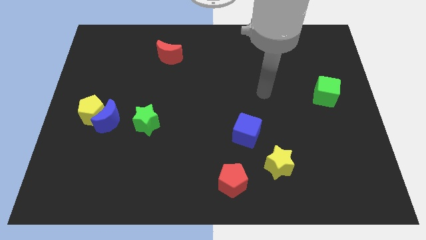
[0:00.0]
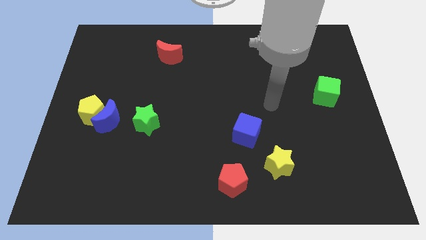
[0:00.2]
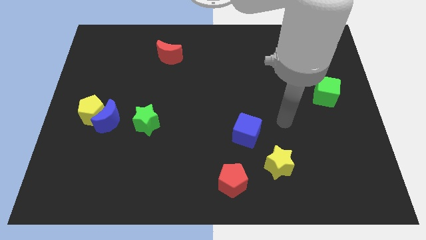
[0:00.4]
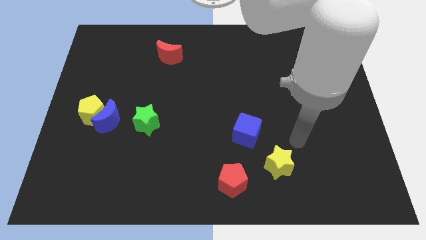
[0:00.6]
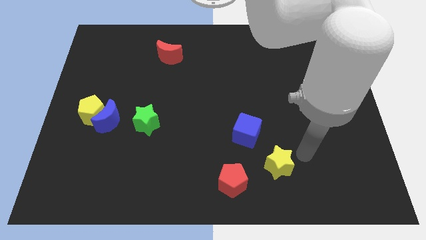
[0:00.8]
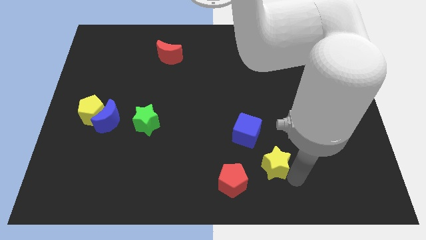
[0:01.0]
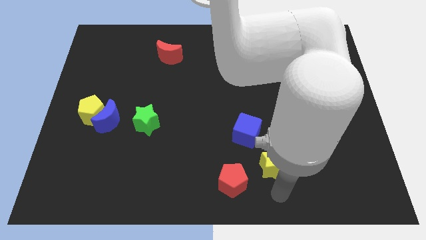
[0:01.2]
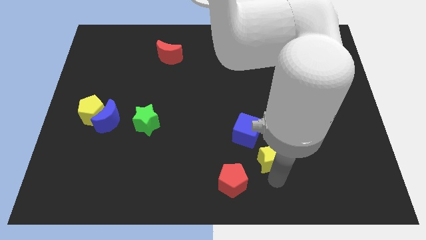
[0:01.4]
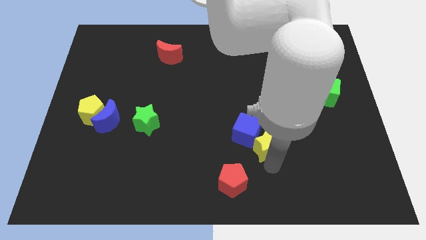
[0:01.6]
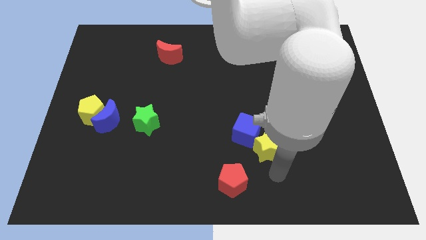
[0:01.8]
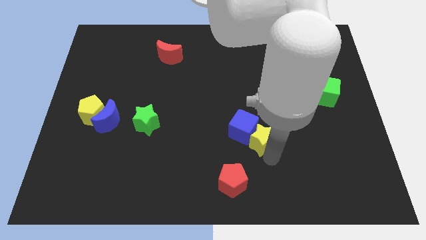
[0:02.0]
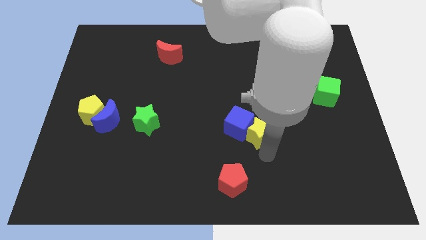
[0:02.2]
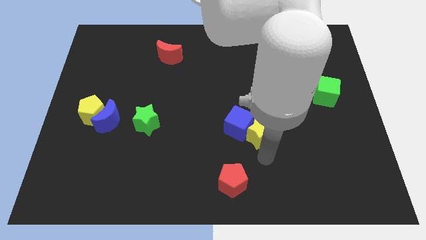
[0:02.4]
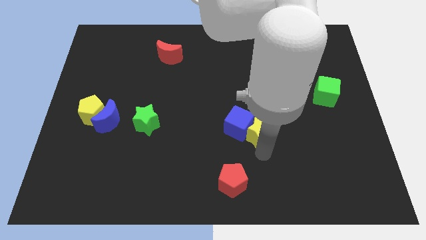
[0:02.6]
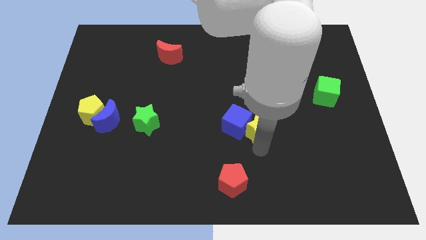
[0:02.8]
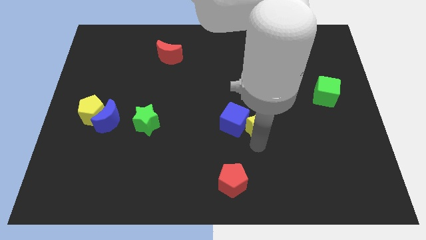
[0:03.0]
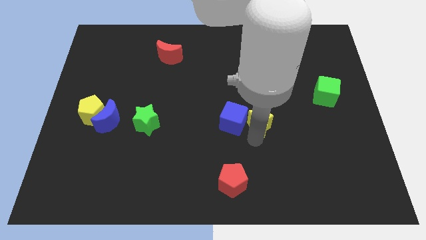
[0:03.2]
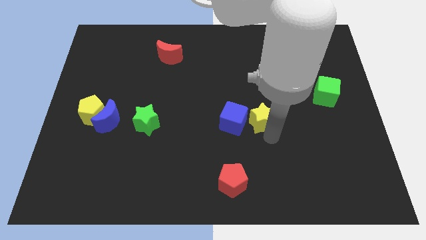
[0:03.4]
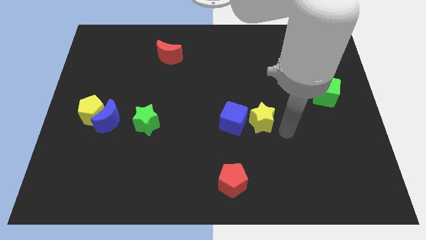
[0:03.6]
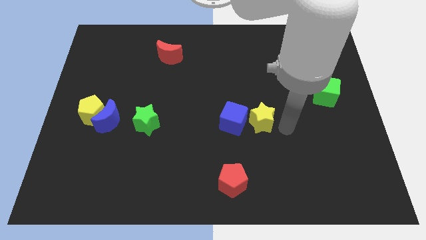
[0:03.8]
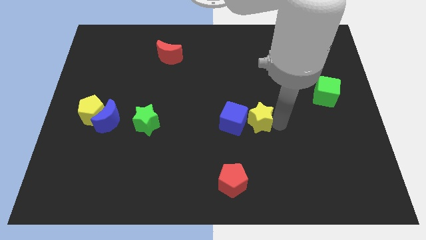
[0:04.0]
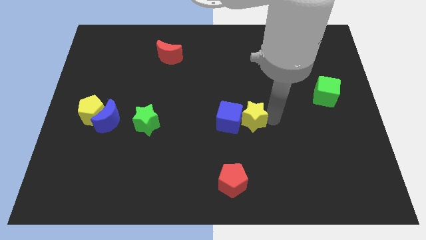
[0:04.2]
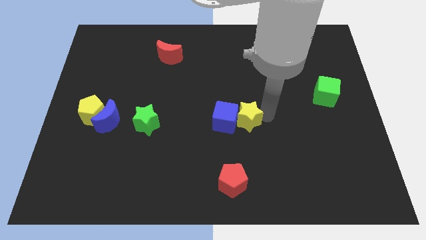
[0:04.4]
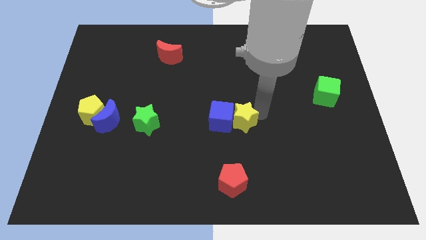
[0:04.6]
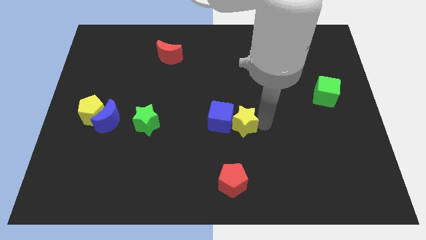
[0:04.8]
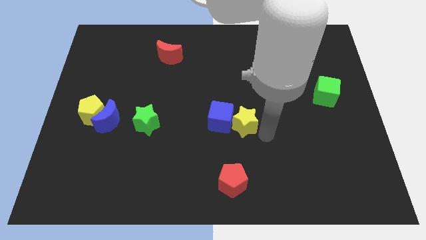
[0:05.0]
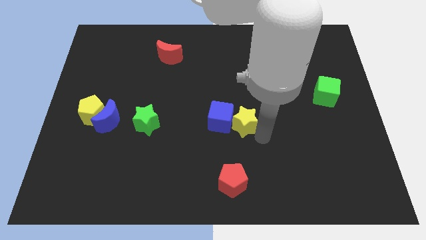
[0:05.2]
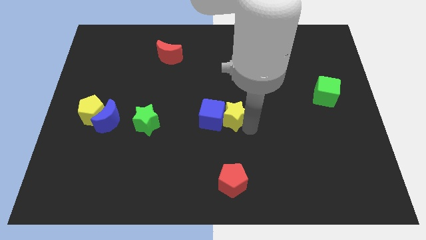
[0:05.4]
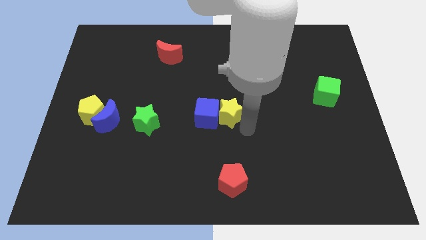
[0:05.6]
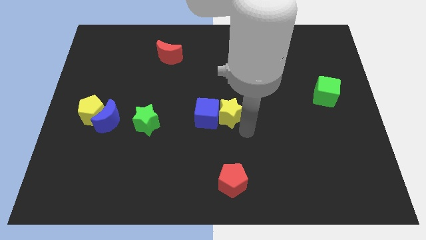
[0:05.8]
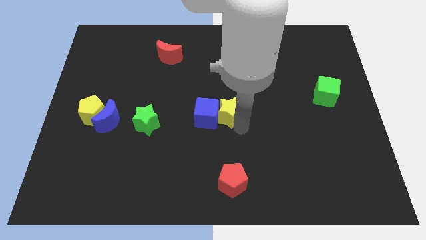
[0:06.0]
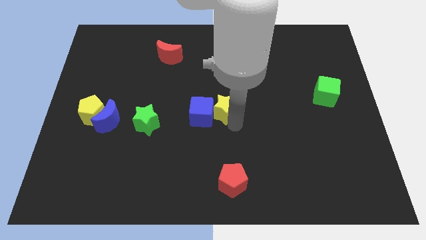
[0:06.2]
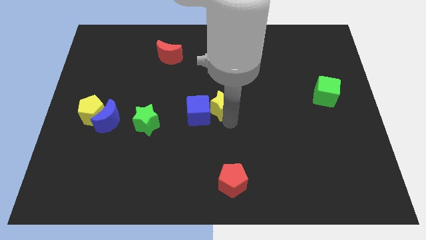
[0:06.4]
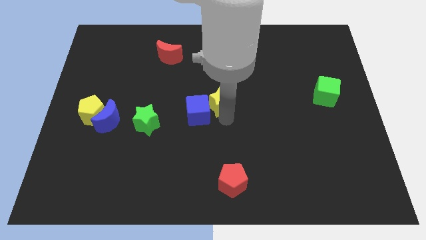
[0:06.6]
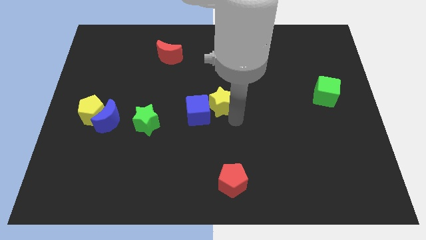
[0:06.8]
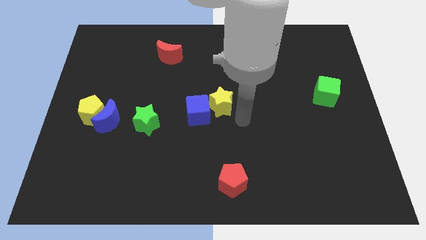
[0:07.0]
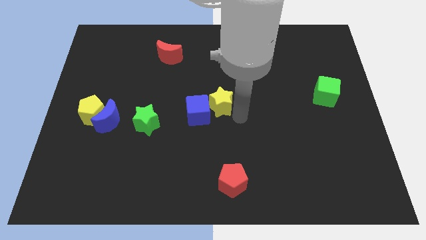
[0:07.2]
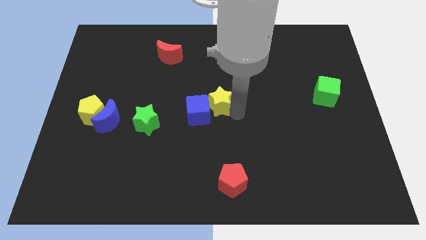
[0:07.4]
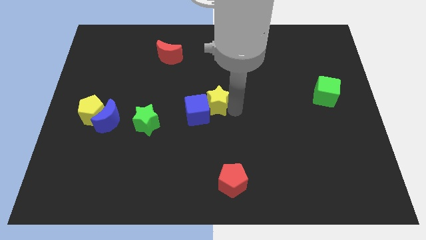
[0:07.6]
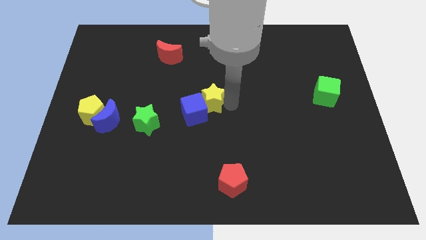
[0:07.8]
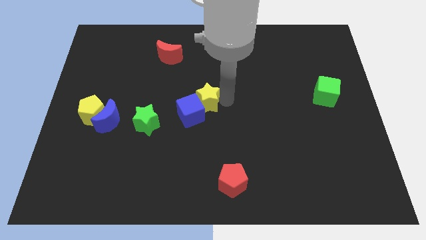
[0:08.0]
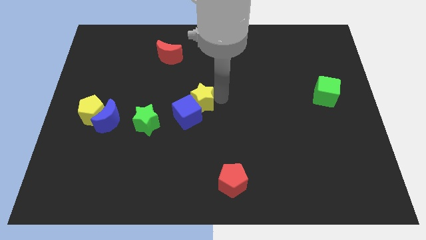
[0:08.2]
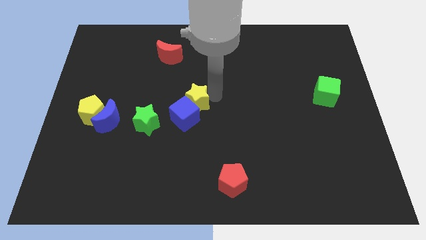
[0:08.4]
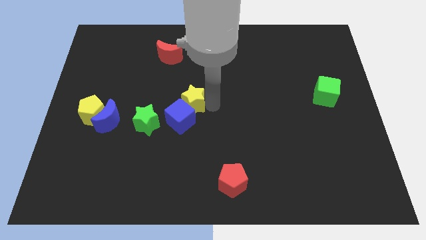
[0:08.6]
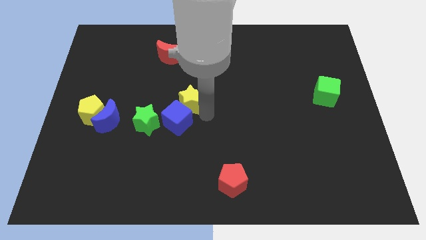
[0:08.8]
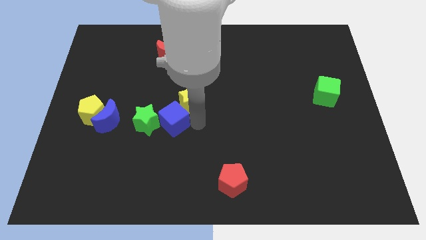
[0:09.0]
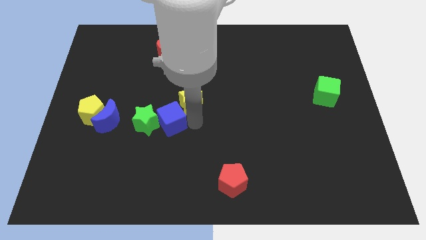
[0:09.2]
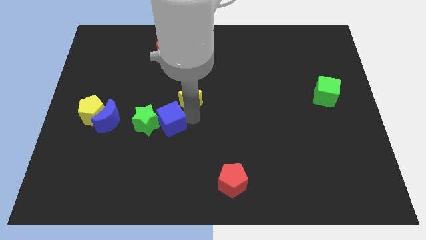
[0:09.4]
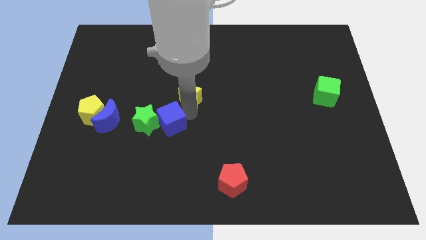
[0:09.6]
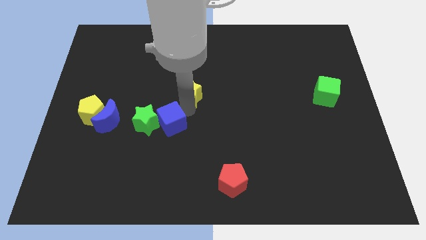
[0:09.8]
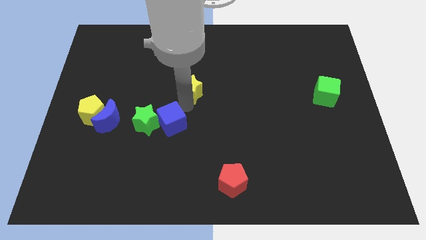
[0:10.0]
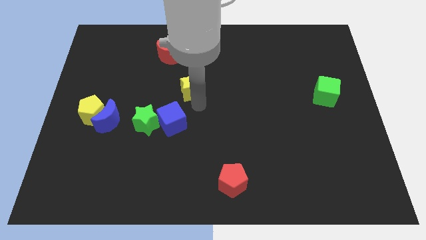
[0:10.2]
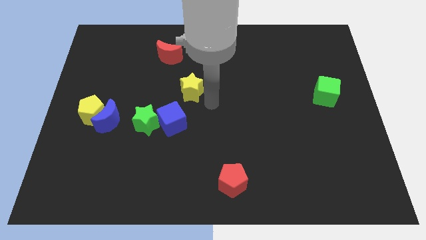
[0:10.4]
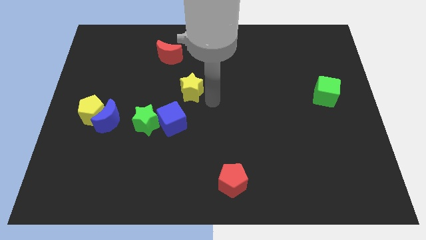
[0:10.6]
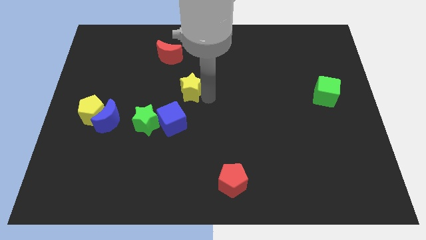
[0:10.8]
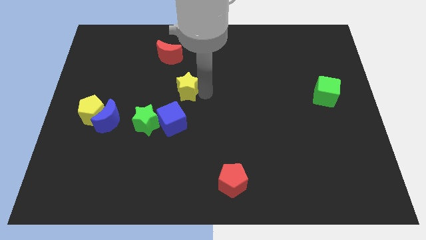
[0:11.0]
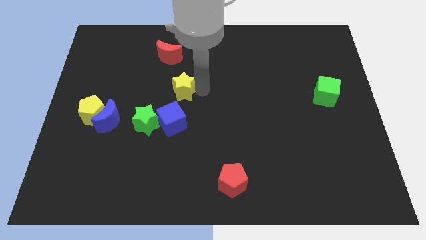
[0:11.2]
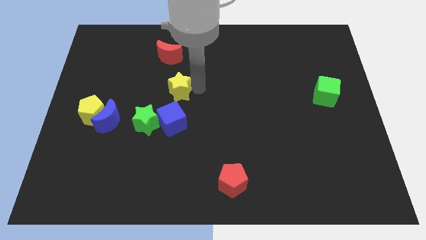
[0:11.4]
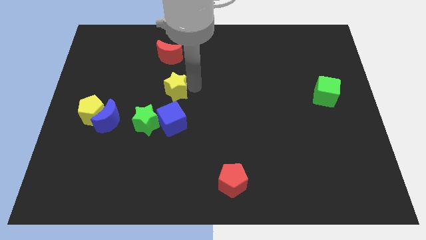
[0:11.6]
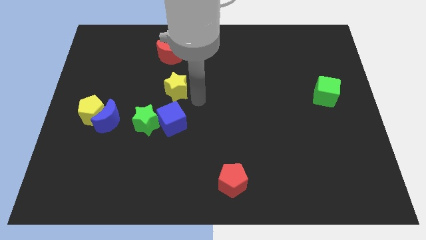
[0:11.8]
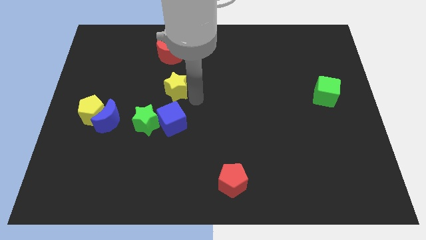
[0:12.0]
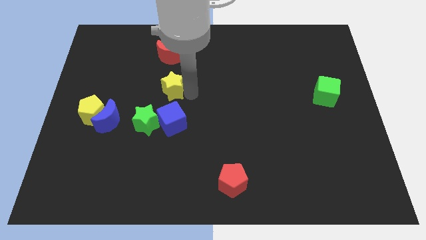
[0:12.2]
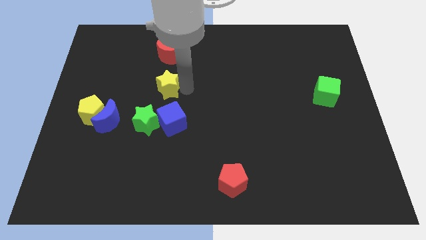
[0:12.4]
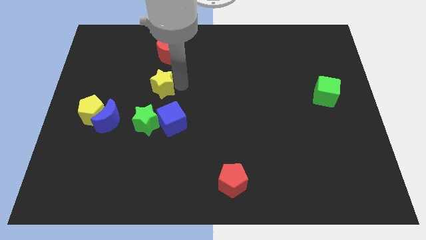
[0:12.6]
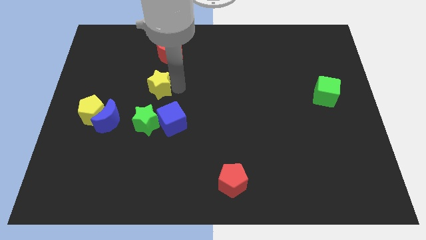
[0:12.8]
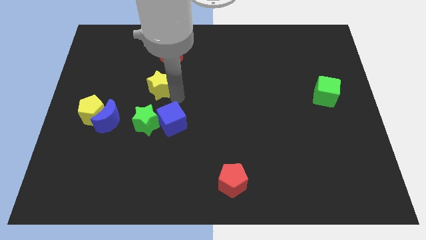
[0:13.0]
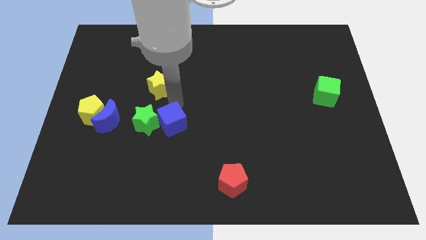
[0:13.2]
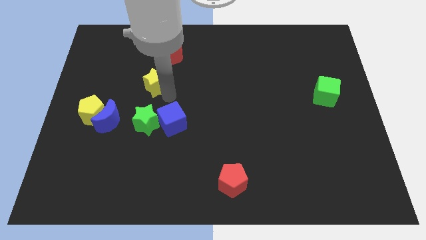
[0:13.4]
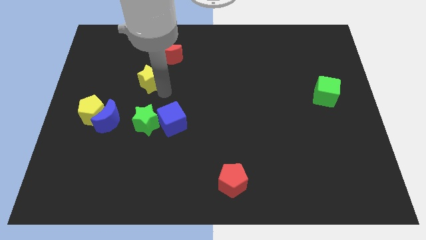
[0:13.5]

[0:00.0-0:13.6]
push the yellow star to the bottom left side of the red moon

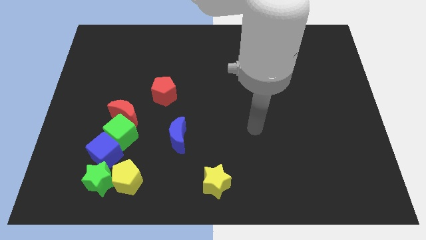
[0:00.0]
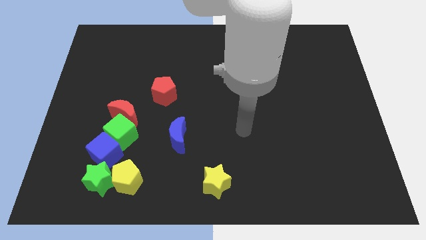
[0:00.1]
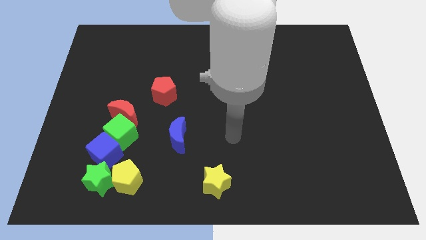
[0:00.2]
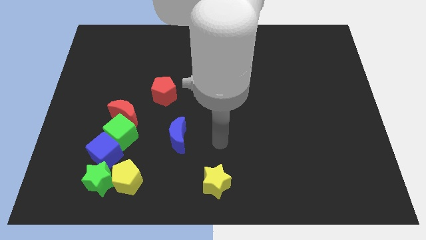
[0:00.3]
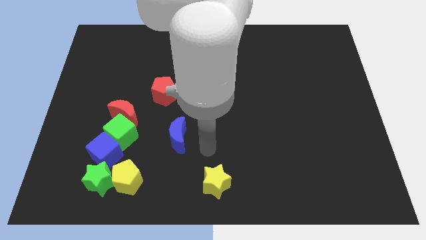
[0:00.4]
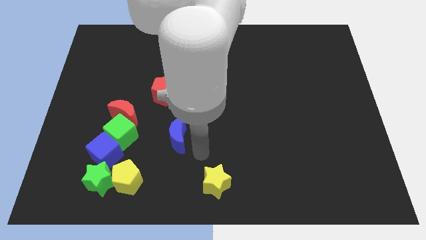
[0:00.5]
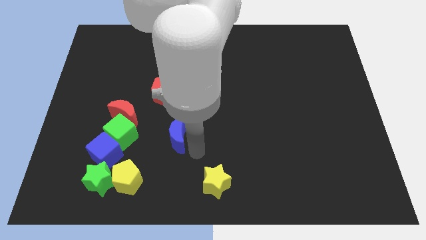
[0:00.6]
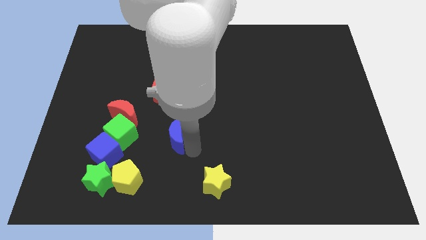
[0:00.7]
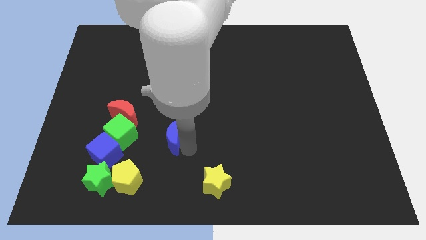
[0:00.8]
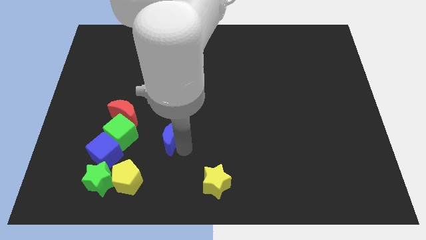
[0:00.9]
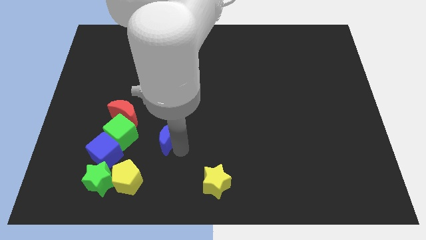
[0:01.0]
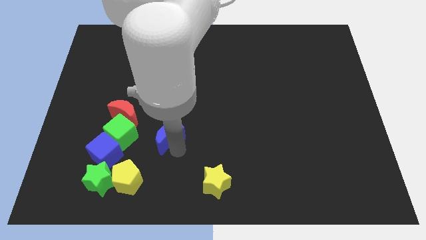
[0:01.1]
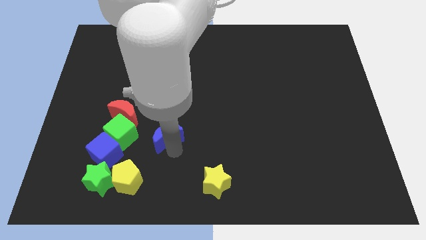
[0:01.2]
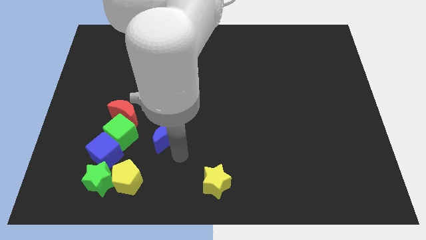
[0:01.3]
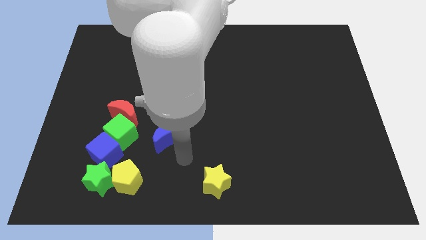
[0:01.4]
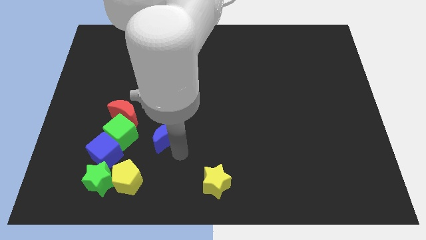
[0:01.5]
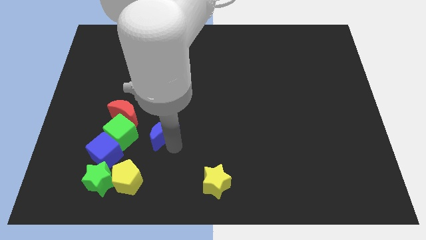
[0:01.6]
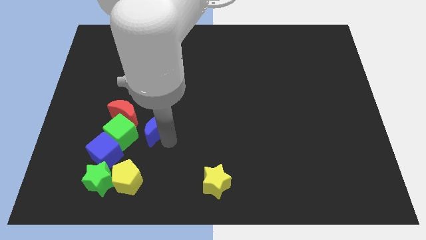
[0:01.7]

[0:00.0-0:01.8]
move the blue moon to the top right side of the green cube
